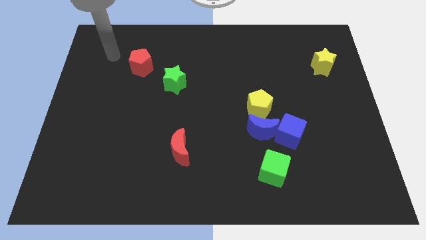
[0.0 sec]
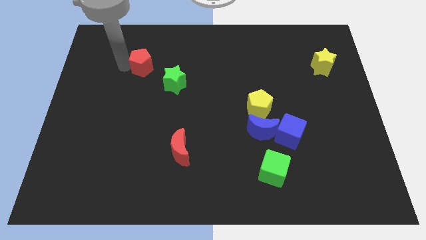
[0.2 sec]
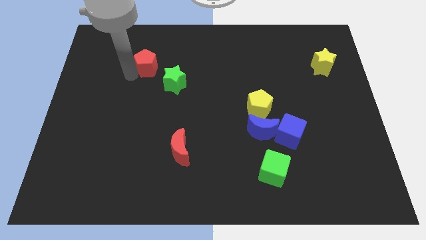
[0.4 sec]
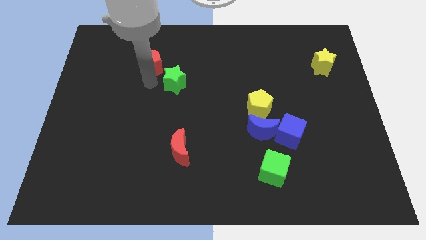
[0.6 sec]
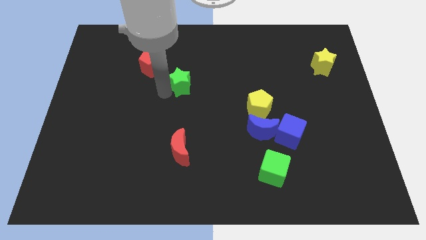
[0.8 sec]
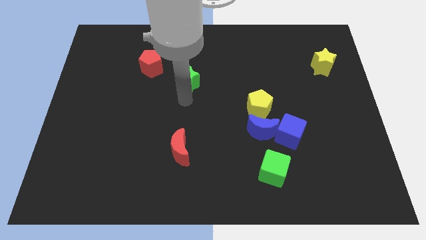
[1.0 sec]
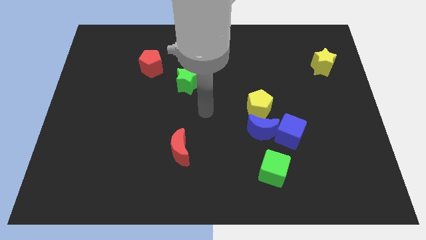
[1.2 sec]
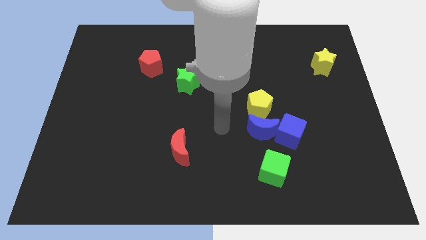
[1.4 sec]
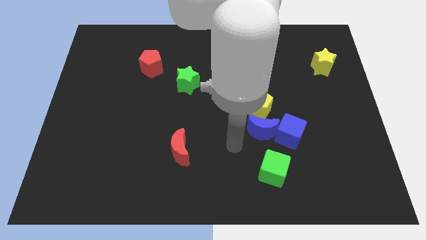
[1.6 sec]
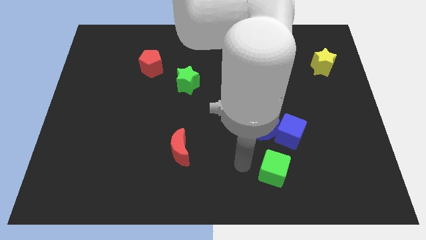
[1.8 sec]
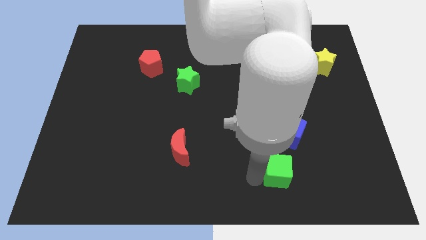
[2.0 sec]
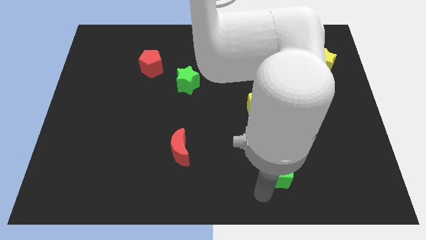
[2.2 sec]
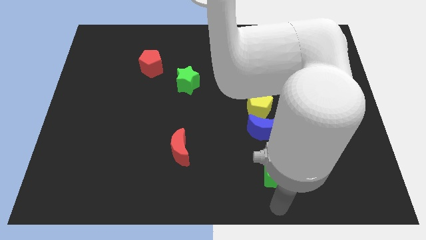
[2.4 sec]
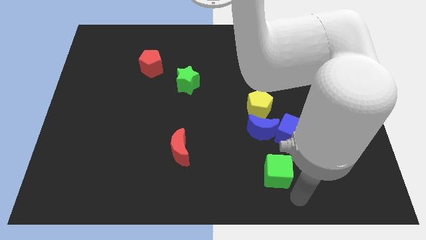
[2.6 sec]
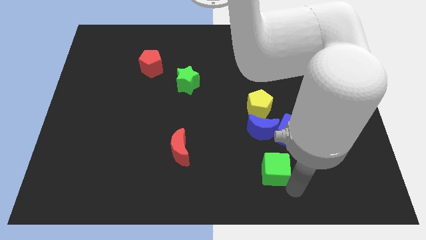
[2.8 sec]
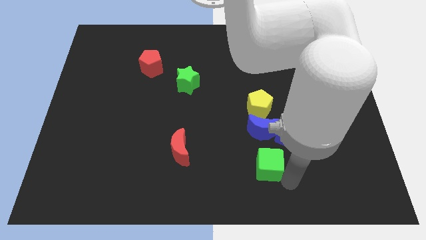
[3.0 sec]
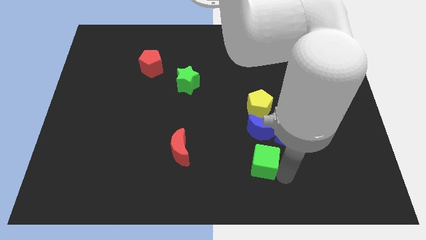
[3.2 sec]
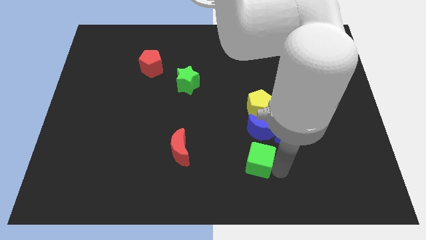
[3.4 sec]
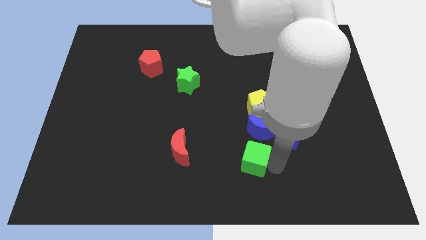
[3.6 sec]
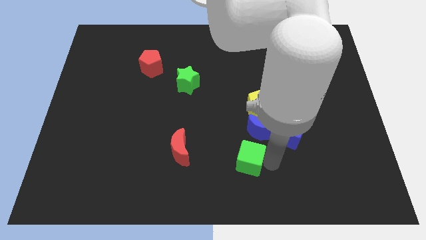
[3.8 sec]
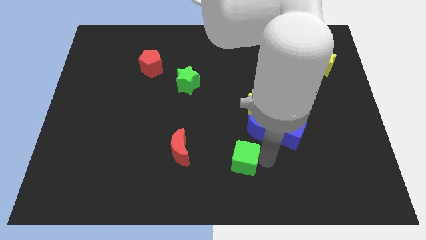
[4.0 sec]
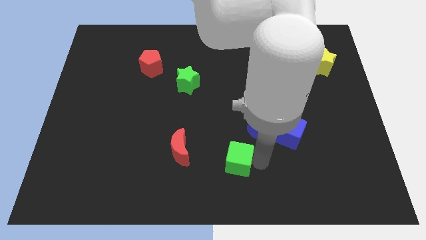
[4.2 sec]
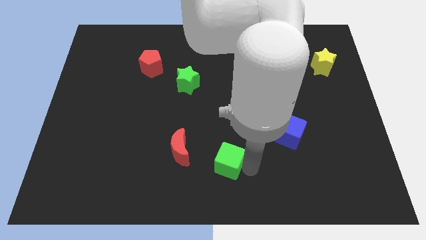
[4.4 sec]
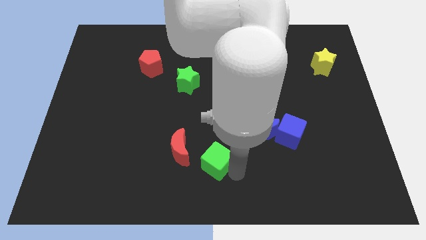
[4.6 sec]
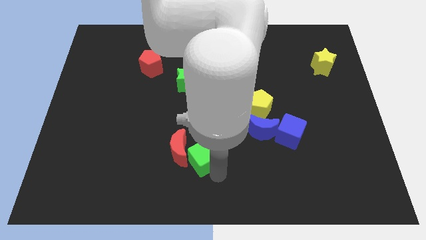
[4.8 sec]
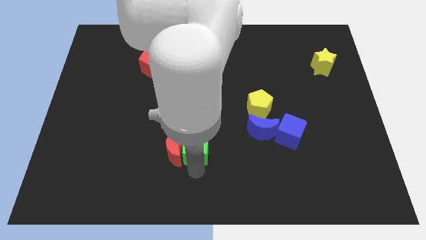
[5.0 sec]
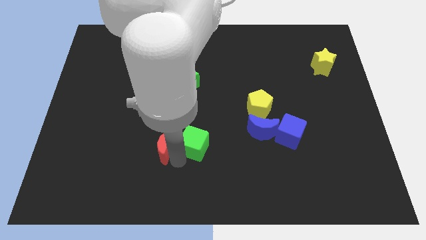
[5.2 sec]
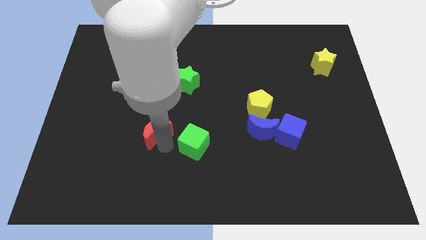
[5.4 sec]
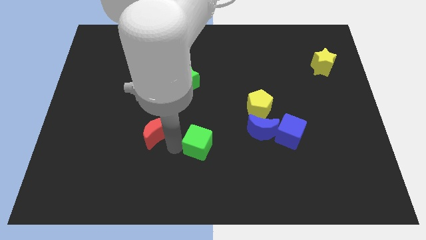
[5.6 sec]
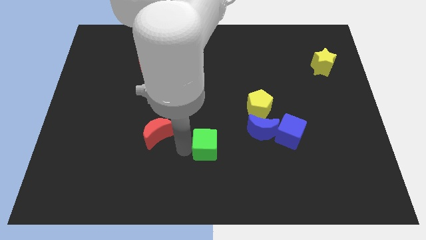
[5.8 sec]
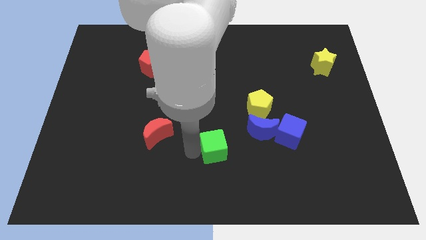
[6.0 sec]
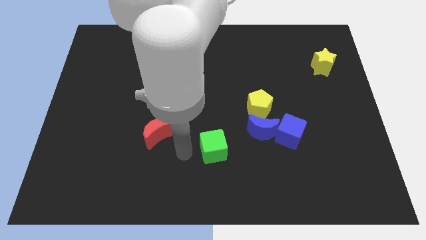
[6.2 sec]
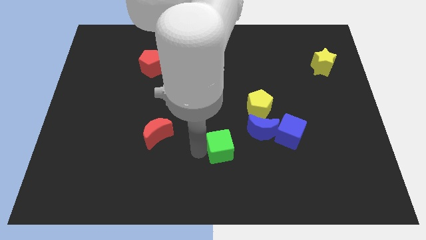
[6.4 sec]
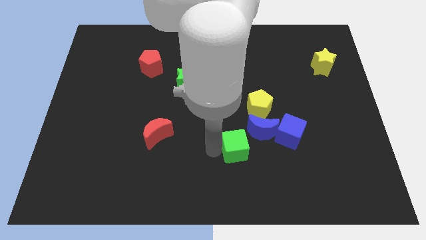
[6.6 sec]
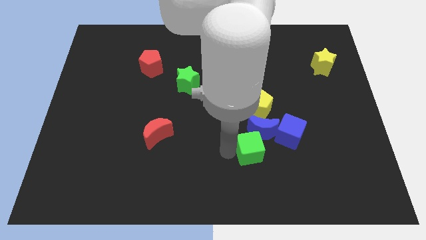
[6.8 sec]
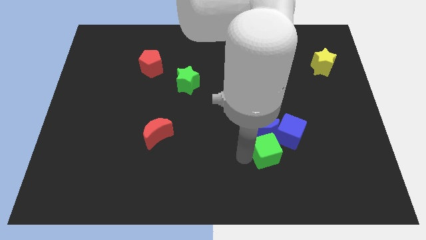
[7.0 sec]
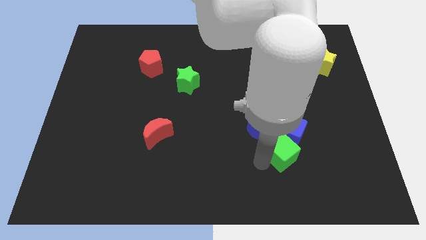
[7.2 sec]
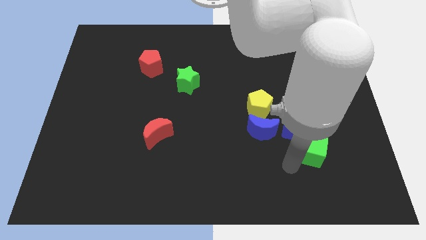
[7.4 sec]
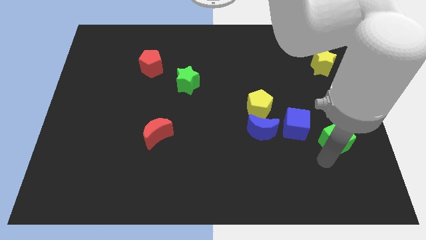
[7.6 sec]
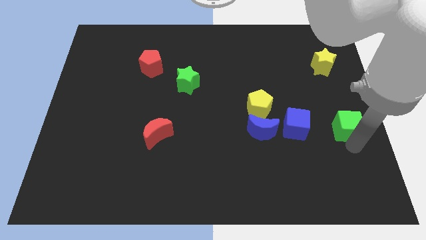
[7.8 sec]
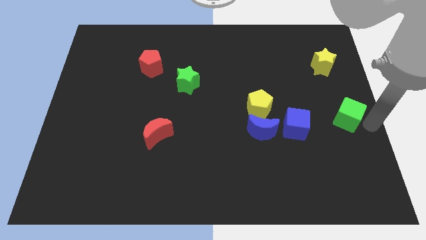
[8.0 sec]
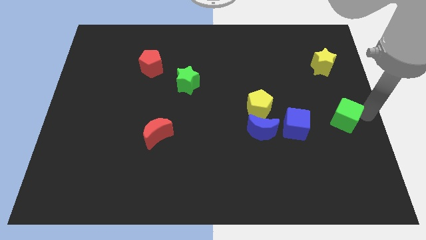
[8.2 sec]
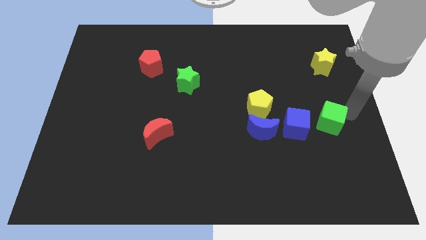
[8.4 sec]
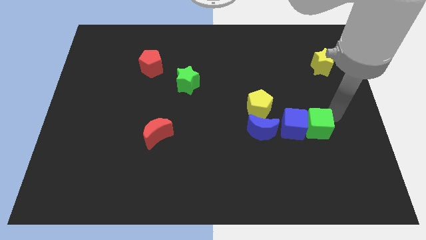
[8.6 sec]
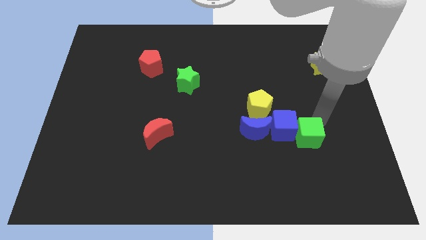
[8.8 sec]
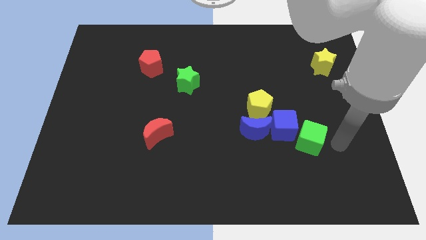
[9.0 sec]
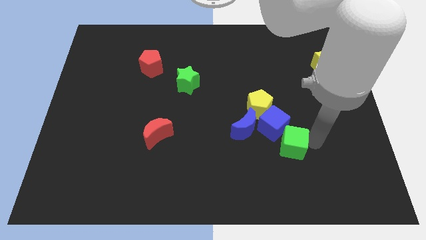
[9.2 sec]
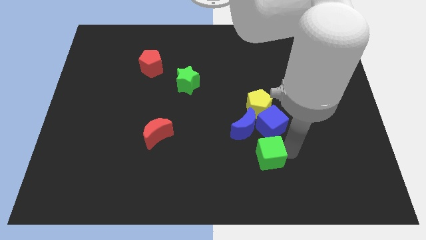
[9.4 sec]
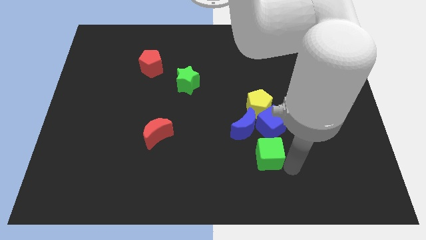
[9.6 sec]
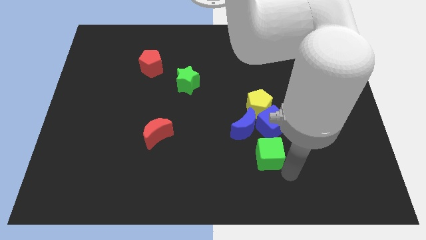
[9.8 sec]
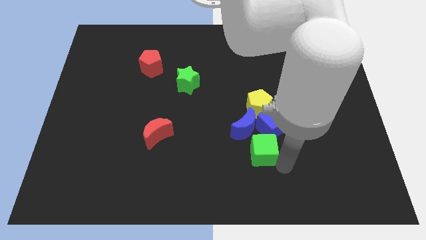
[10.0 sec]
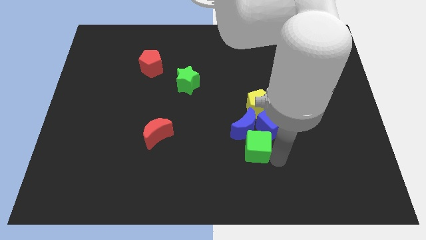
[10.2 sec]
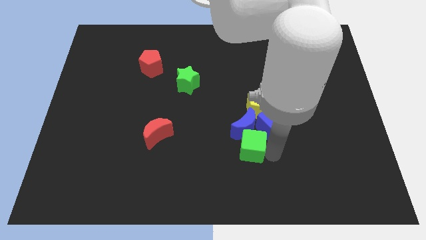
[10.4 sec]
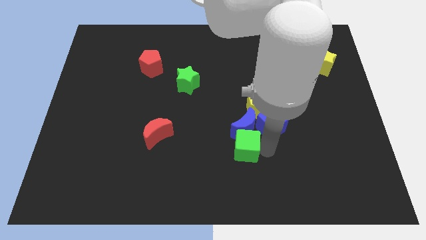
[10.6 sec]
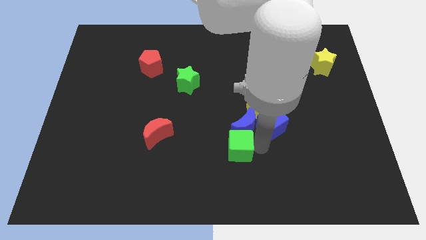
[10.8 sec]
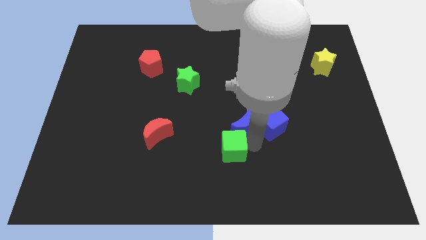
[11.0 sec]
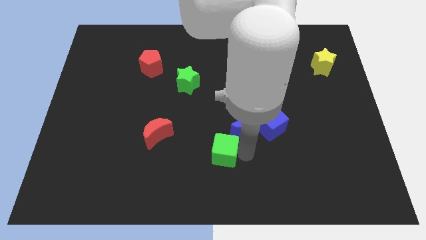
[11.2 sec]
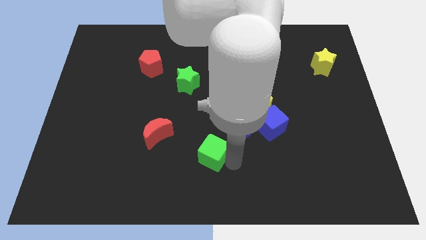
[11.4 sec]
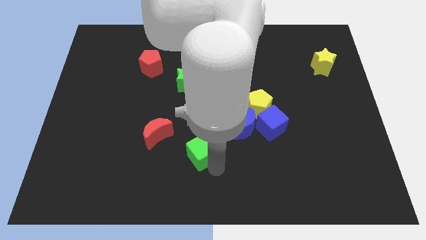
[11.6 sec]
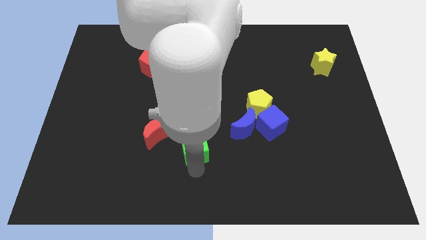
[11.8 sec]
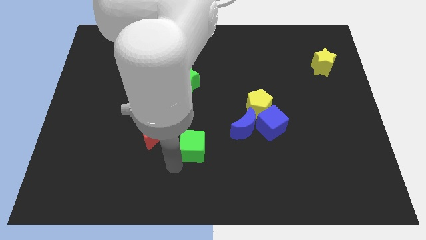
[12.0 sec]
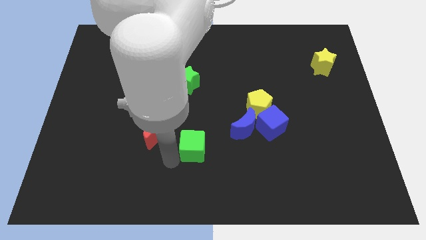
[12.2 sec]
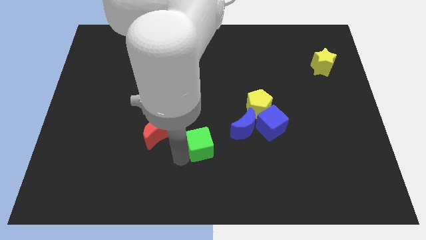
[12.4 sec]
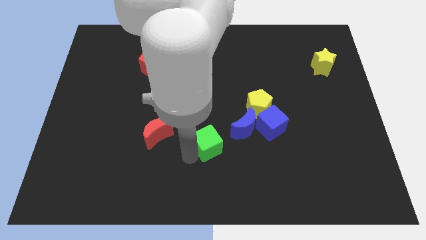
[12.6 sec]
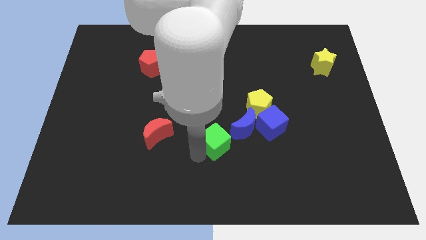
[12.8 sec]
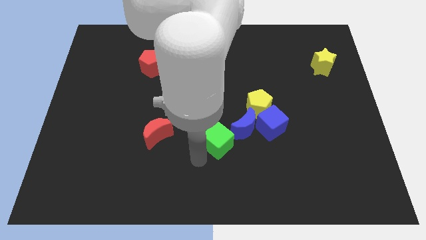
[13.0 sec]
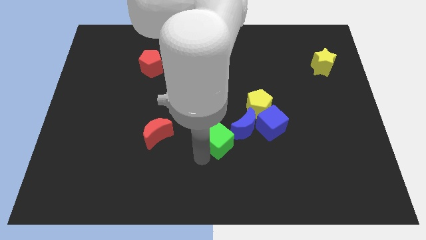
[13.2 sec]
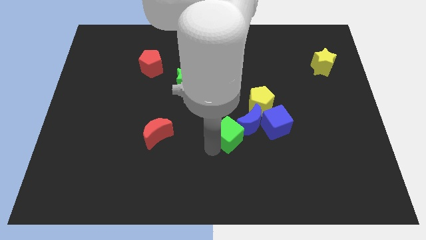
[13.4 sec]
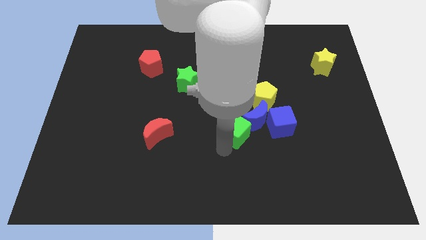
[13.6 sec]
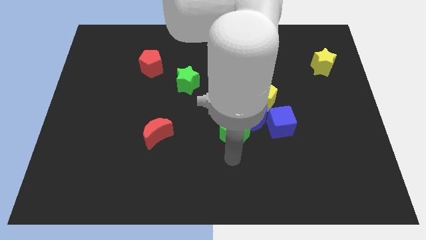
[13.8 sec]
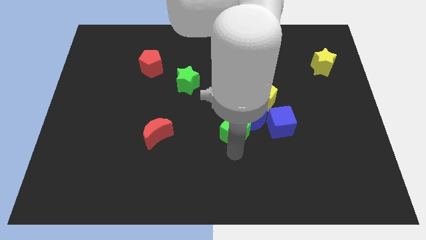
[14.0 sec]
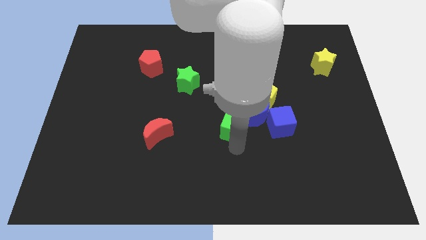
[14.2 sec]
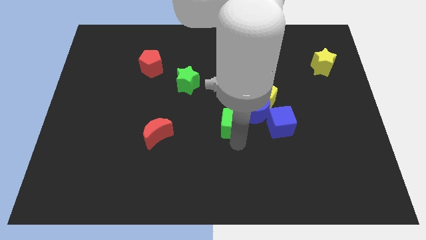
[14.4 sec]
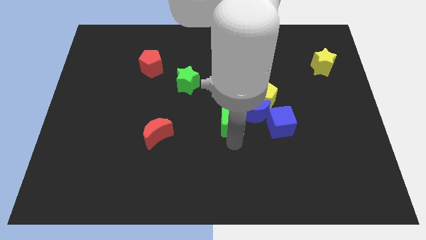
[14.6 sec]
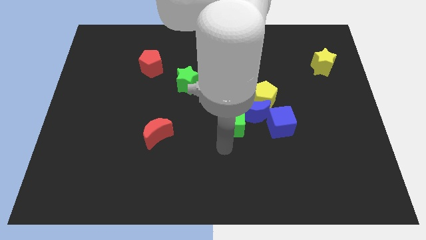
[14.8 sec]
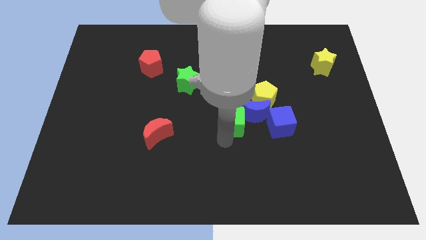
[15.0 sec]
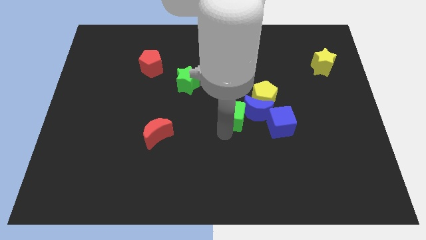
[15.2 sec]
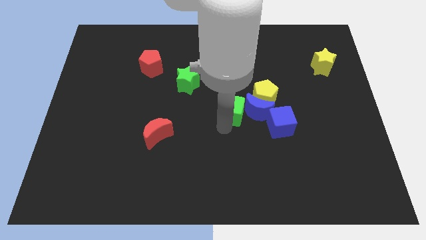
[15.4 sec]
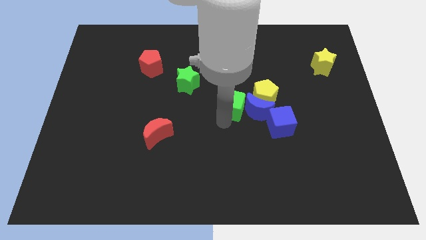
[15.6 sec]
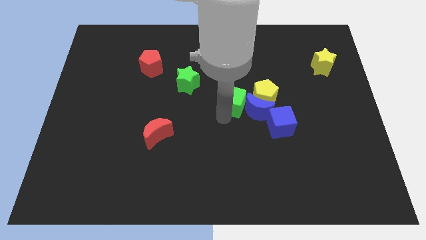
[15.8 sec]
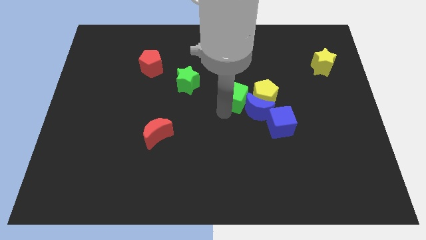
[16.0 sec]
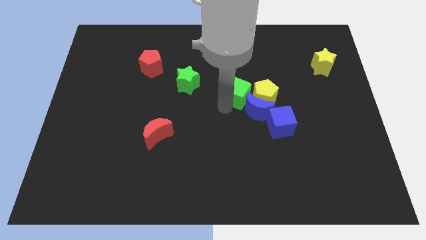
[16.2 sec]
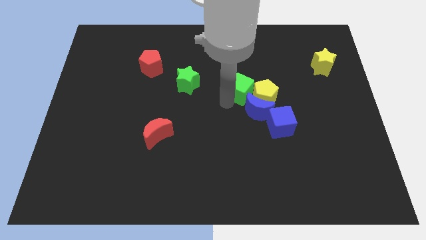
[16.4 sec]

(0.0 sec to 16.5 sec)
move the green cube up

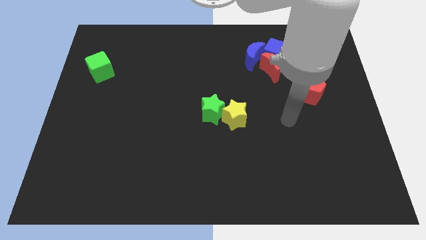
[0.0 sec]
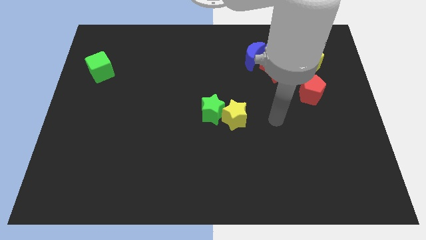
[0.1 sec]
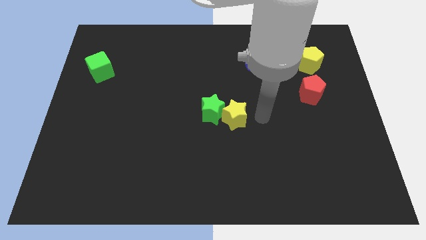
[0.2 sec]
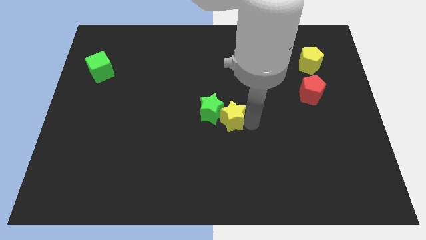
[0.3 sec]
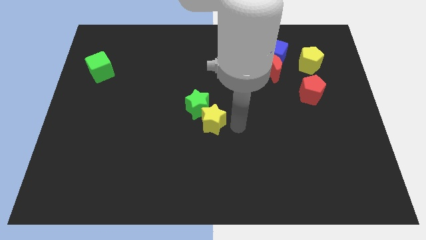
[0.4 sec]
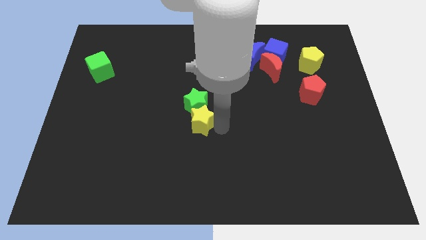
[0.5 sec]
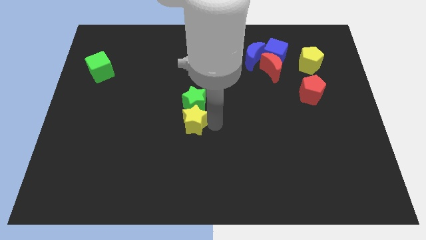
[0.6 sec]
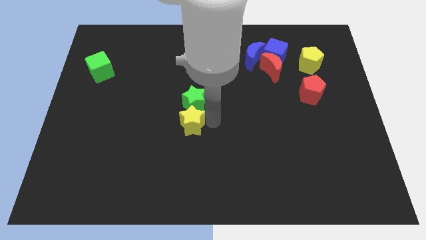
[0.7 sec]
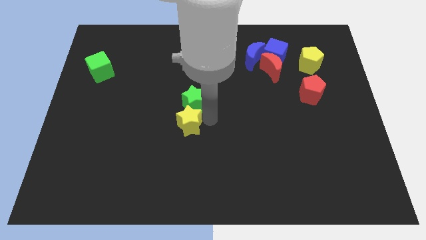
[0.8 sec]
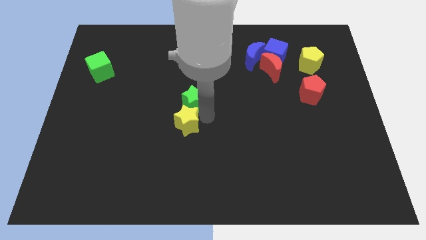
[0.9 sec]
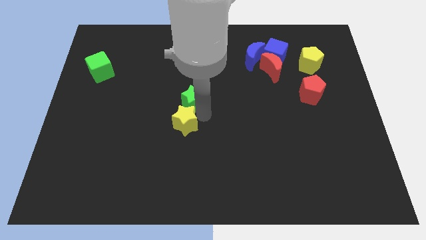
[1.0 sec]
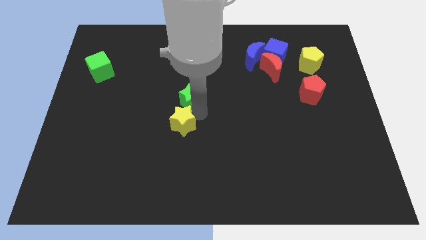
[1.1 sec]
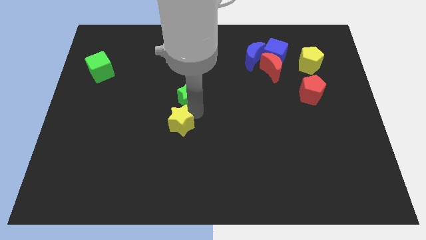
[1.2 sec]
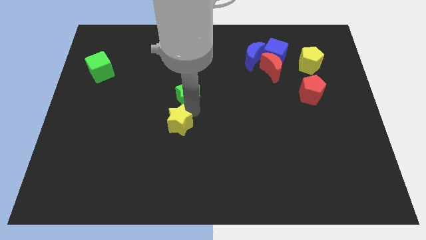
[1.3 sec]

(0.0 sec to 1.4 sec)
slide the green star a bit up and to the left
